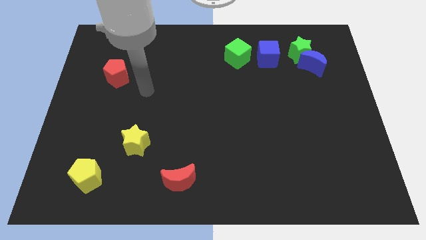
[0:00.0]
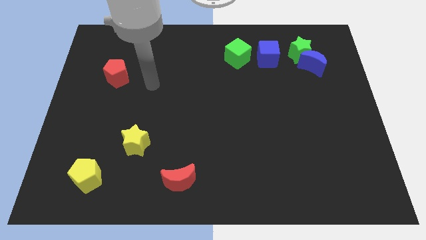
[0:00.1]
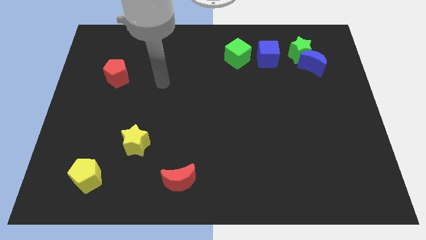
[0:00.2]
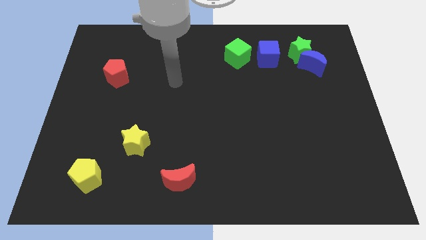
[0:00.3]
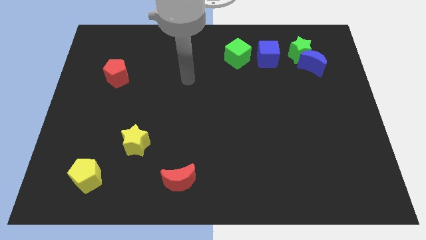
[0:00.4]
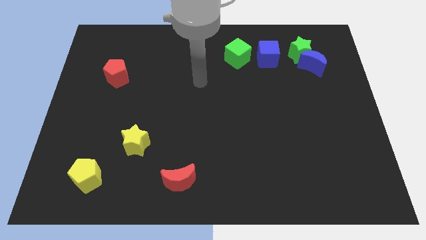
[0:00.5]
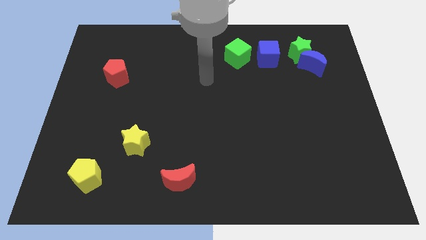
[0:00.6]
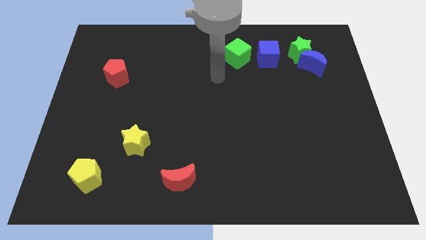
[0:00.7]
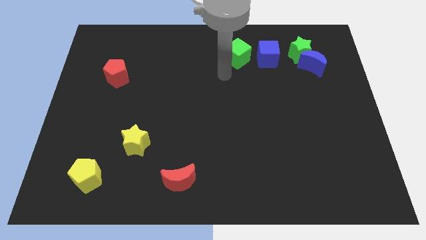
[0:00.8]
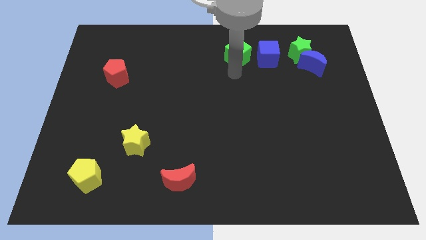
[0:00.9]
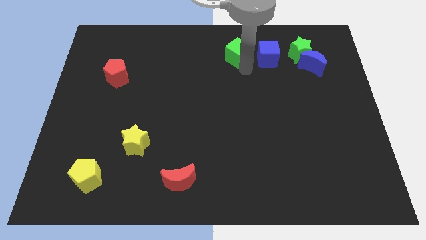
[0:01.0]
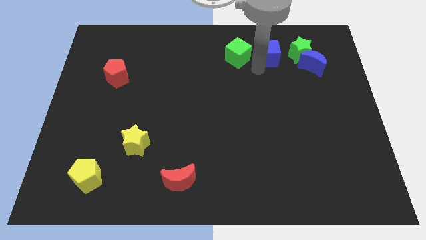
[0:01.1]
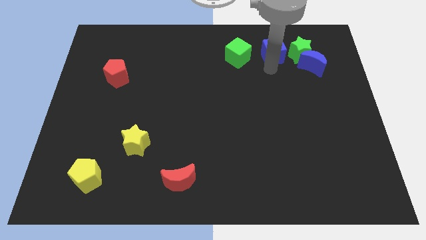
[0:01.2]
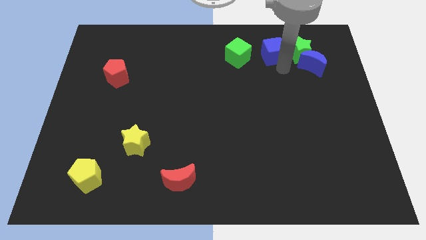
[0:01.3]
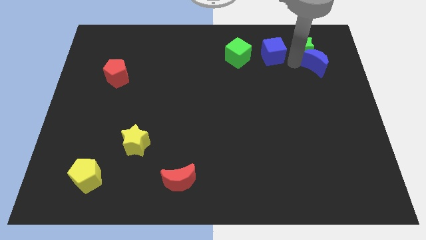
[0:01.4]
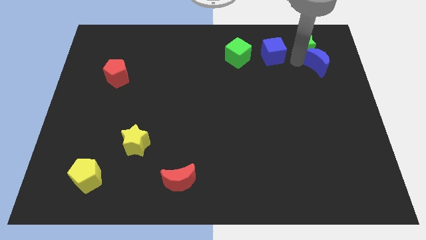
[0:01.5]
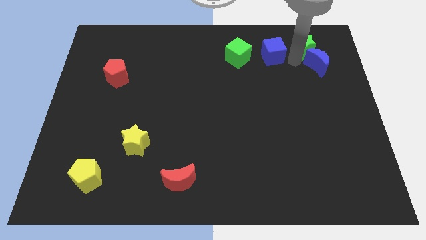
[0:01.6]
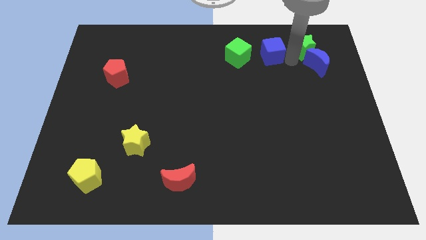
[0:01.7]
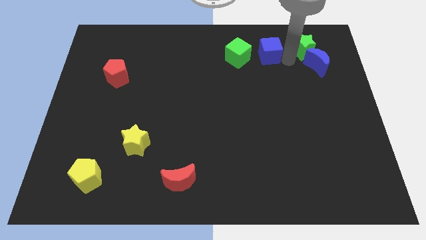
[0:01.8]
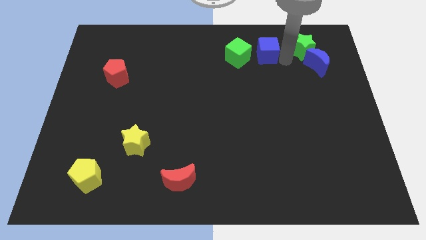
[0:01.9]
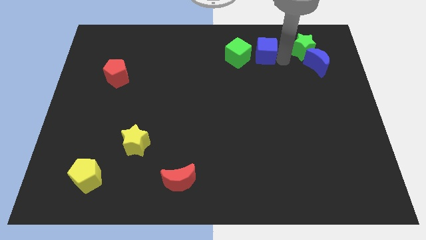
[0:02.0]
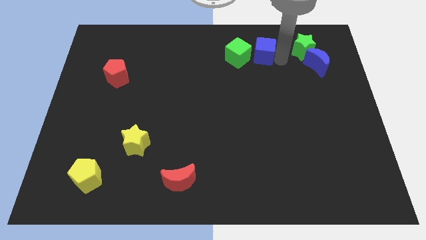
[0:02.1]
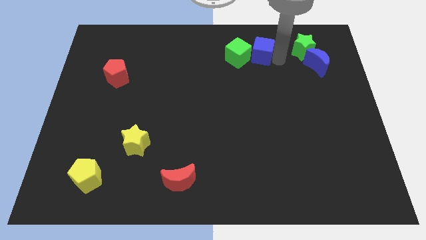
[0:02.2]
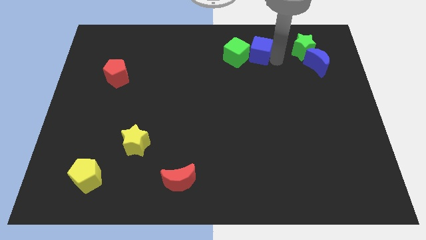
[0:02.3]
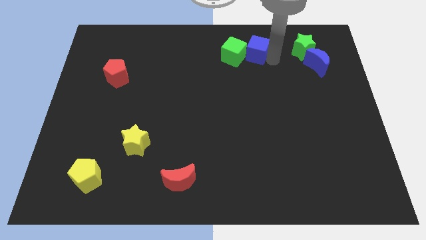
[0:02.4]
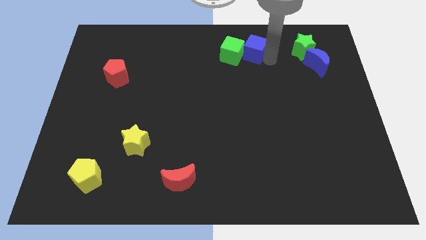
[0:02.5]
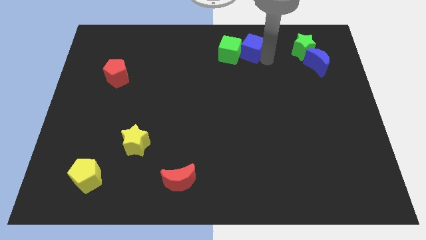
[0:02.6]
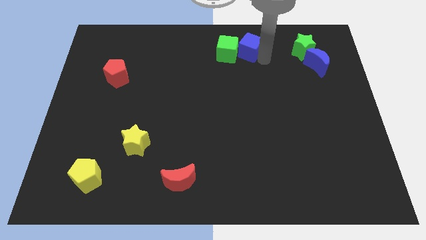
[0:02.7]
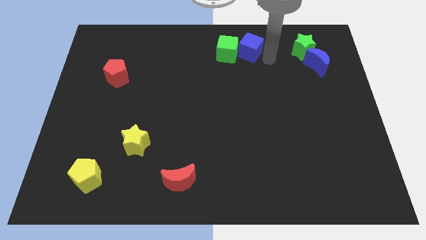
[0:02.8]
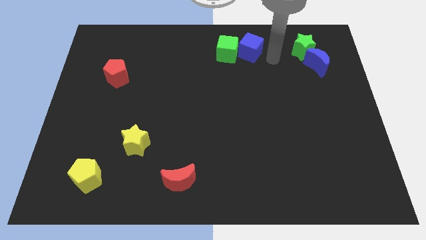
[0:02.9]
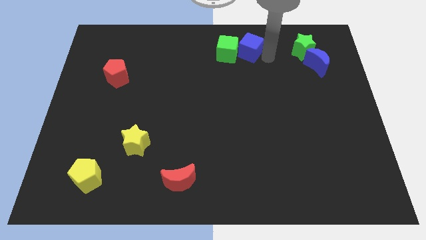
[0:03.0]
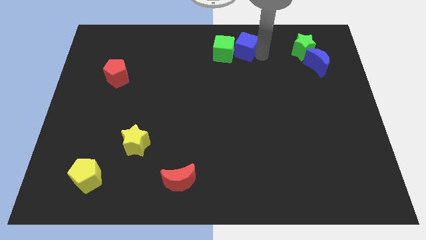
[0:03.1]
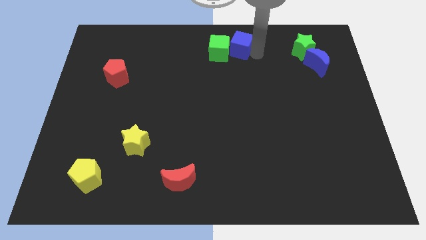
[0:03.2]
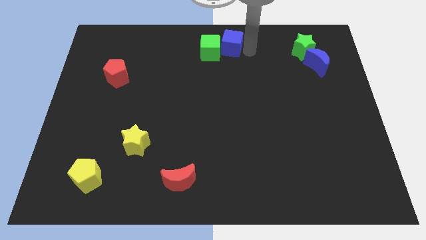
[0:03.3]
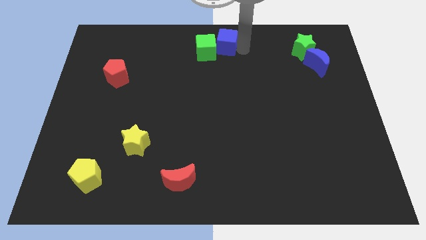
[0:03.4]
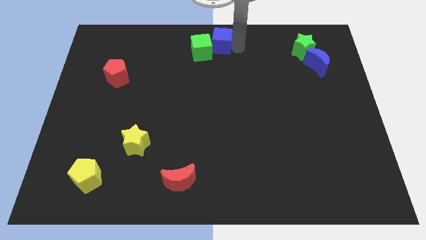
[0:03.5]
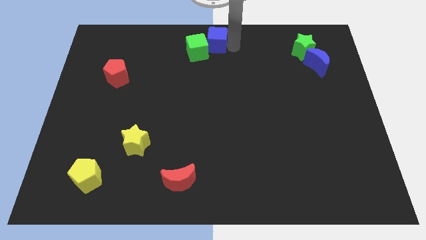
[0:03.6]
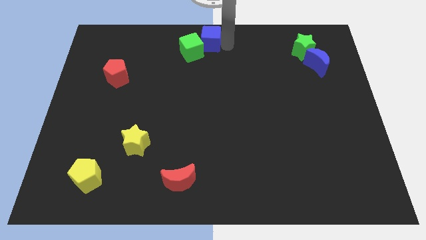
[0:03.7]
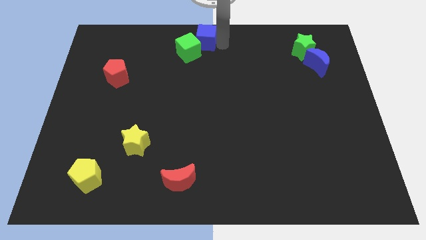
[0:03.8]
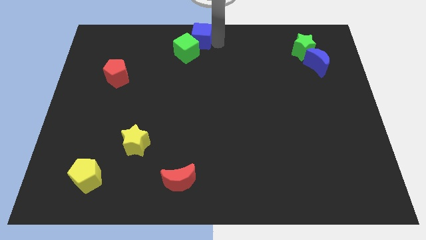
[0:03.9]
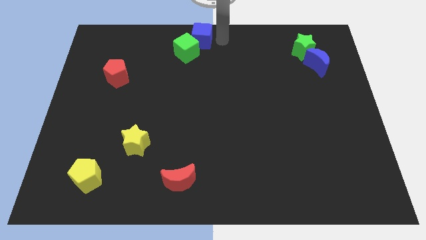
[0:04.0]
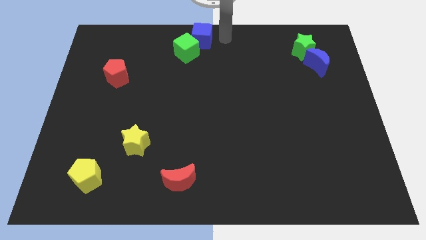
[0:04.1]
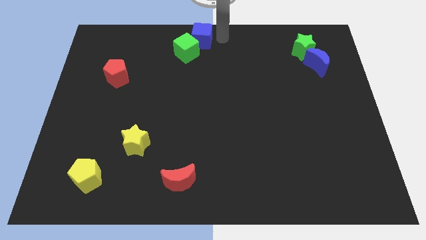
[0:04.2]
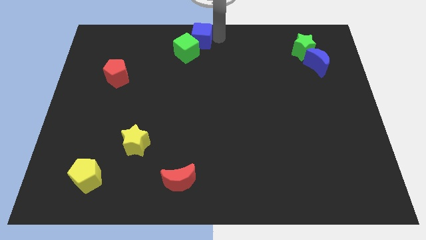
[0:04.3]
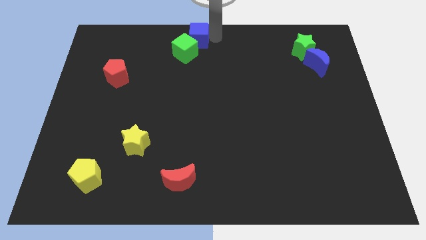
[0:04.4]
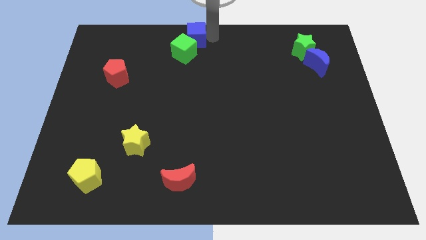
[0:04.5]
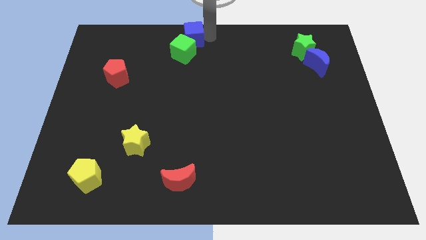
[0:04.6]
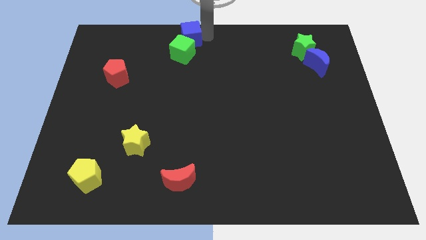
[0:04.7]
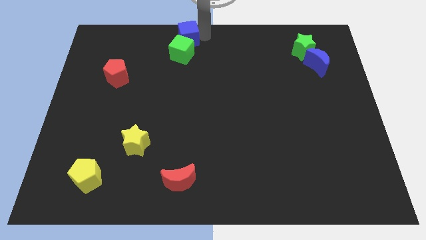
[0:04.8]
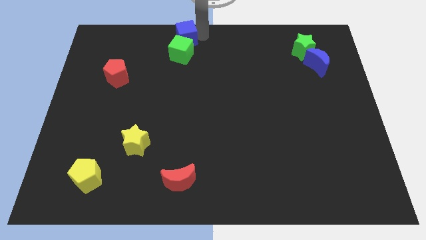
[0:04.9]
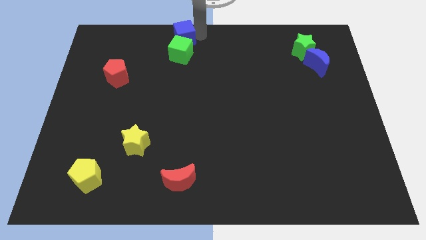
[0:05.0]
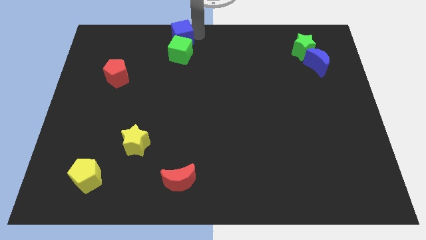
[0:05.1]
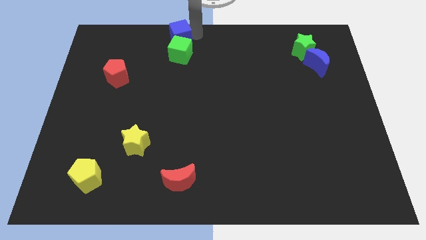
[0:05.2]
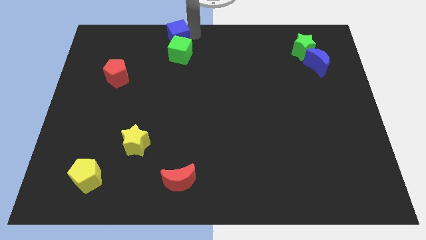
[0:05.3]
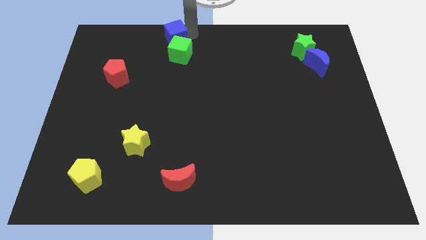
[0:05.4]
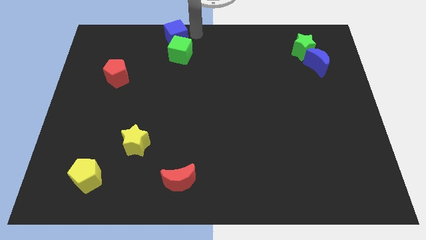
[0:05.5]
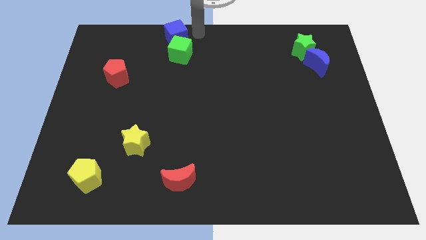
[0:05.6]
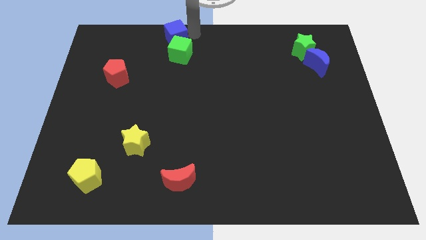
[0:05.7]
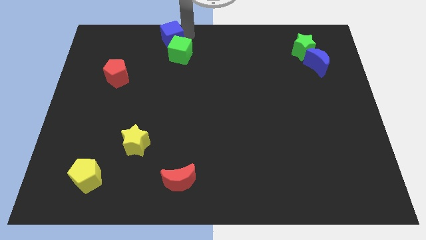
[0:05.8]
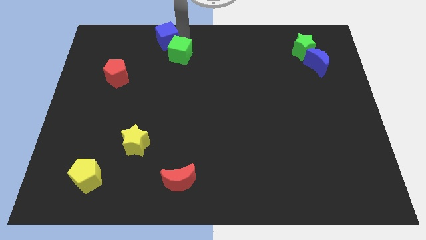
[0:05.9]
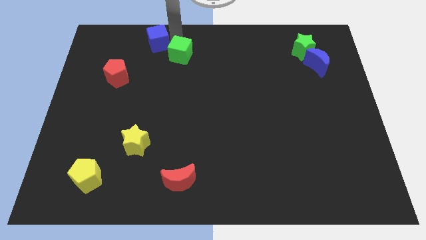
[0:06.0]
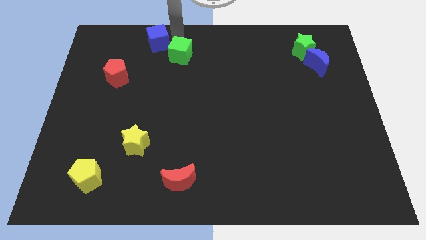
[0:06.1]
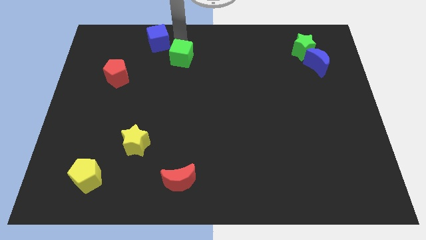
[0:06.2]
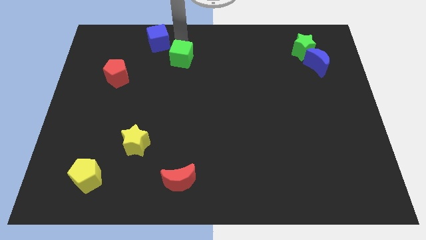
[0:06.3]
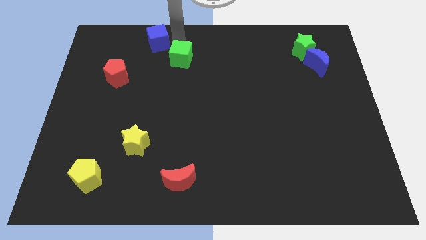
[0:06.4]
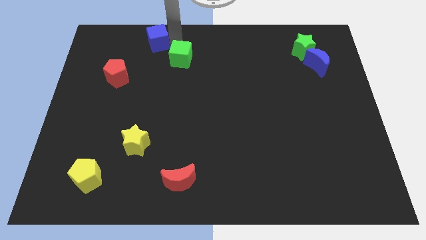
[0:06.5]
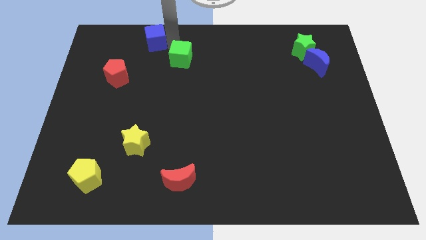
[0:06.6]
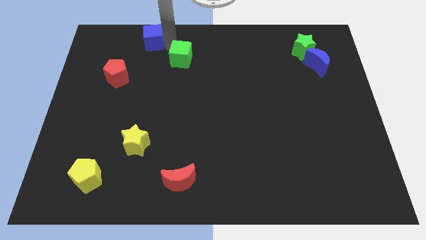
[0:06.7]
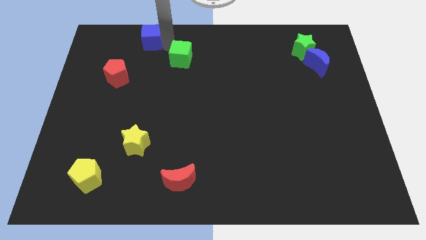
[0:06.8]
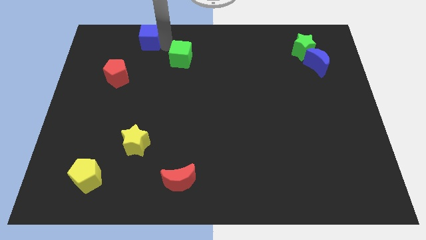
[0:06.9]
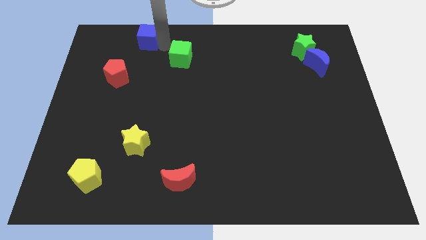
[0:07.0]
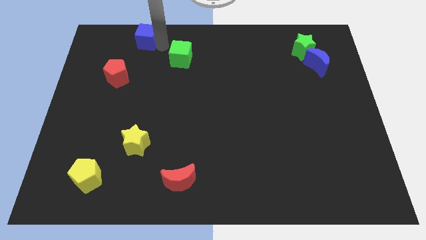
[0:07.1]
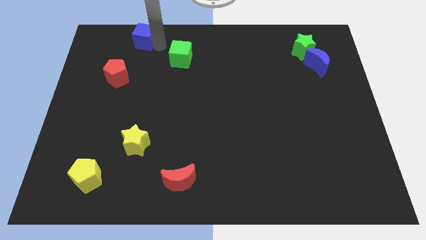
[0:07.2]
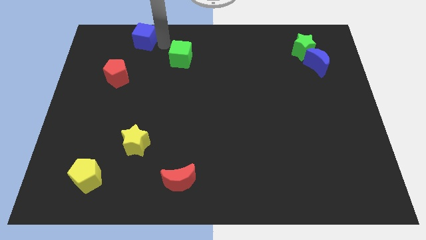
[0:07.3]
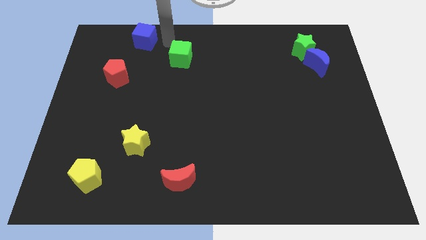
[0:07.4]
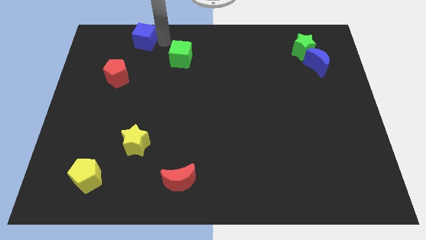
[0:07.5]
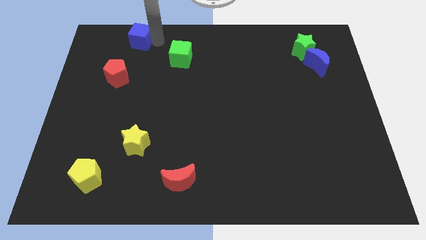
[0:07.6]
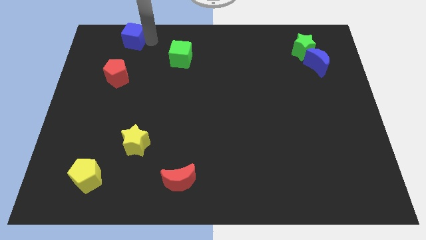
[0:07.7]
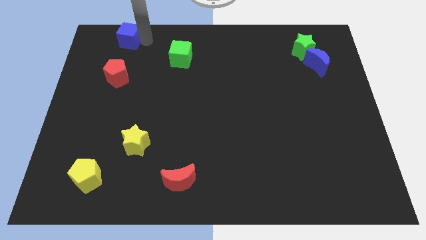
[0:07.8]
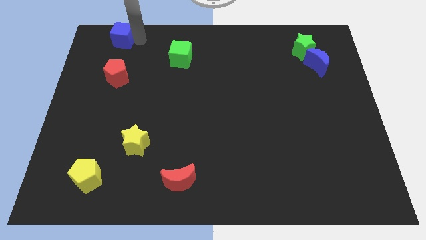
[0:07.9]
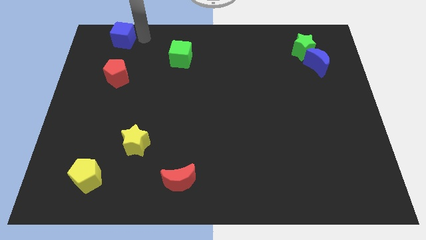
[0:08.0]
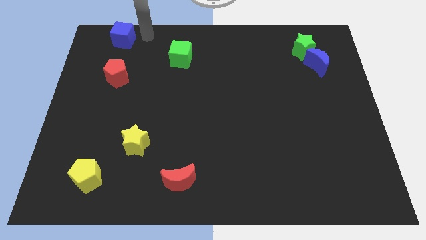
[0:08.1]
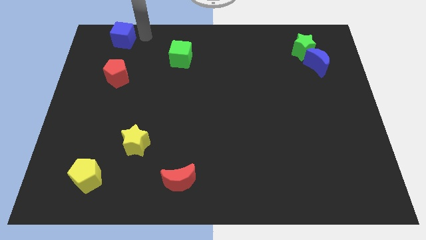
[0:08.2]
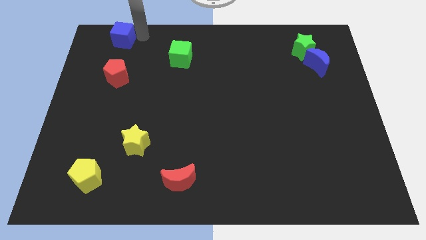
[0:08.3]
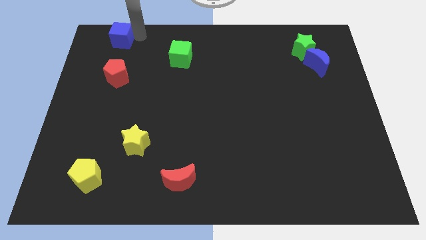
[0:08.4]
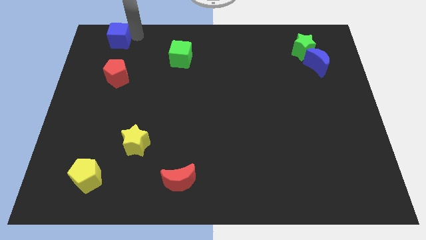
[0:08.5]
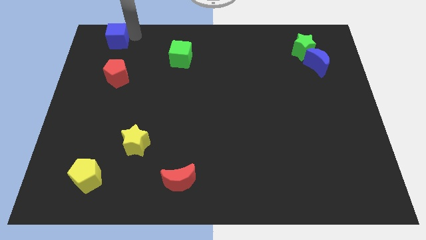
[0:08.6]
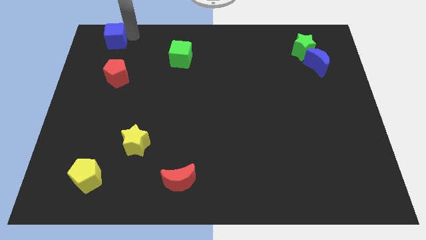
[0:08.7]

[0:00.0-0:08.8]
put the blue cube to the top left
